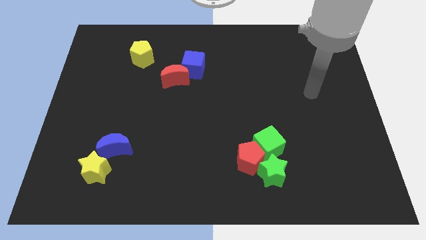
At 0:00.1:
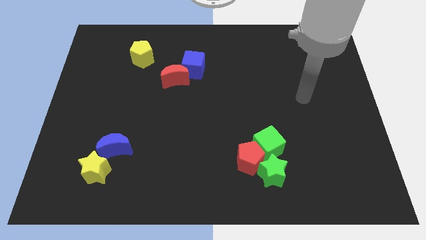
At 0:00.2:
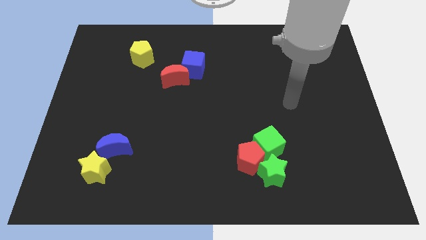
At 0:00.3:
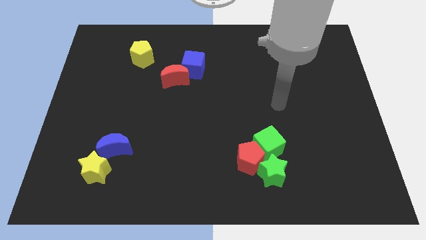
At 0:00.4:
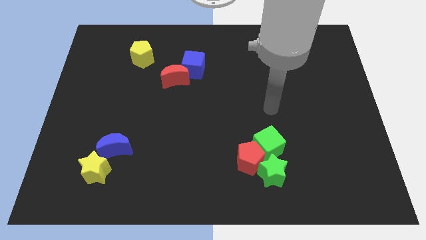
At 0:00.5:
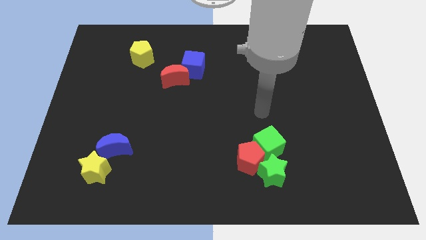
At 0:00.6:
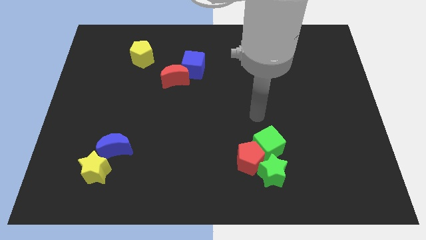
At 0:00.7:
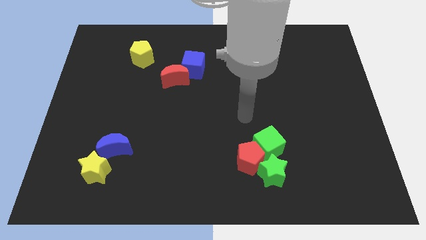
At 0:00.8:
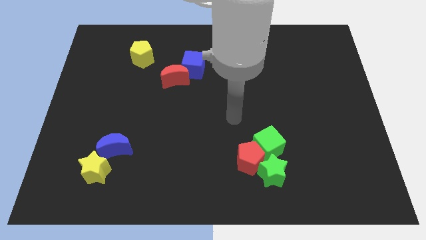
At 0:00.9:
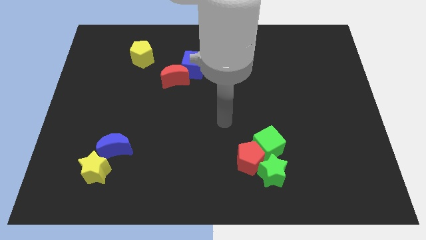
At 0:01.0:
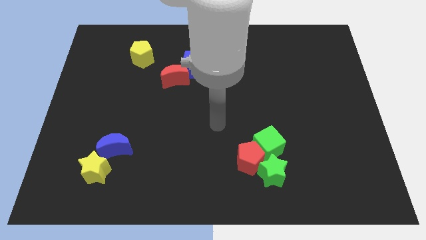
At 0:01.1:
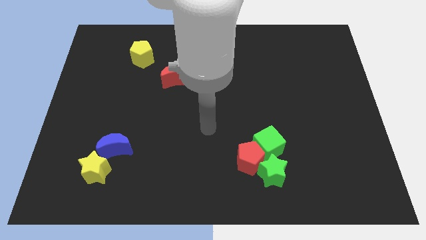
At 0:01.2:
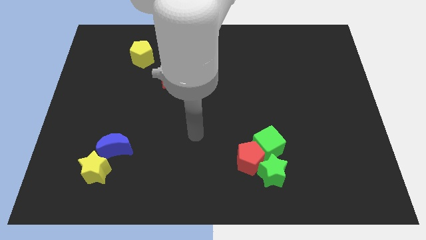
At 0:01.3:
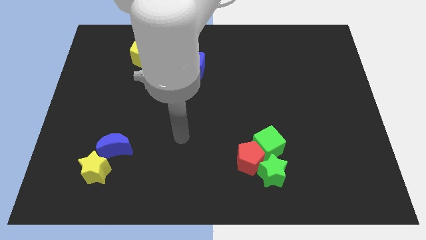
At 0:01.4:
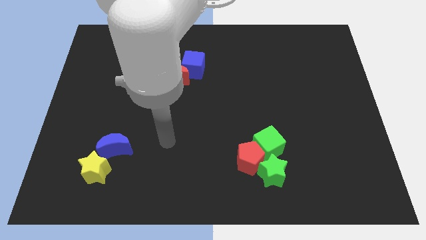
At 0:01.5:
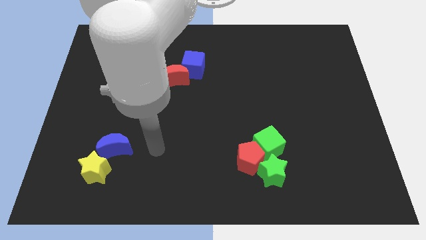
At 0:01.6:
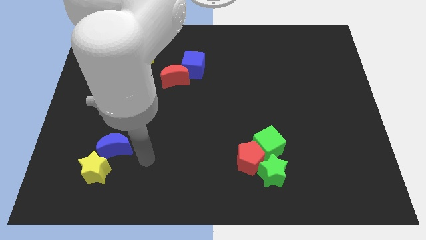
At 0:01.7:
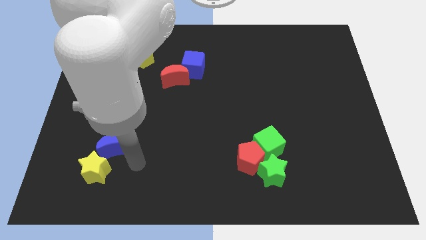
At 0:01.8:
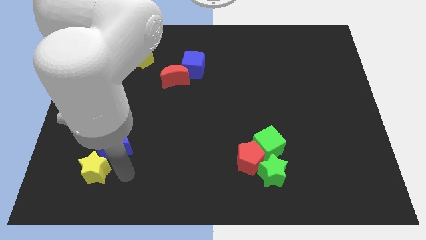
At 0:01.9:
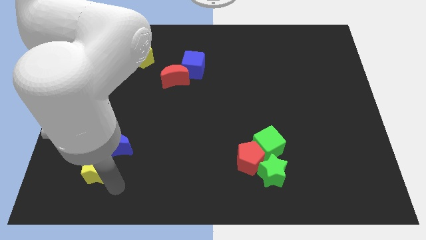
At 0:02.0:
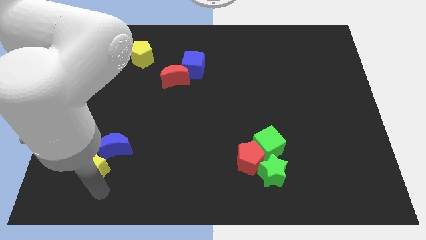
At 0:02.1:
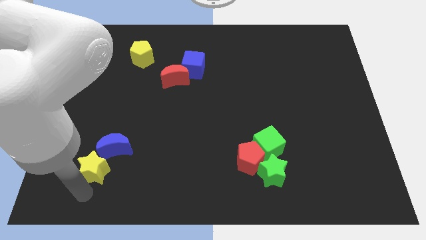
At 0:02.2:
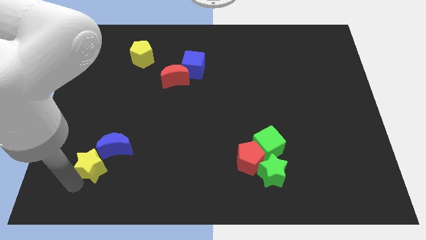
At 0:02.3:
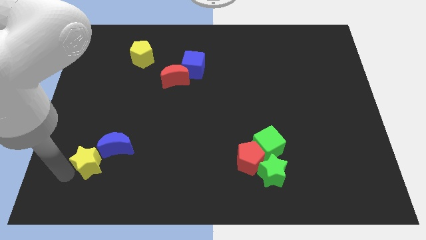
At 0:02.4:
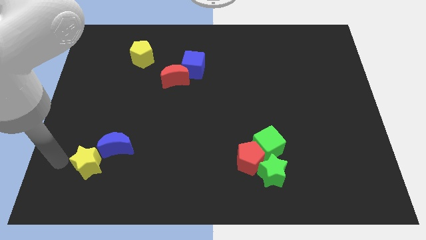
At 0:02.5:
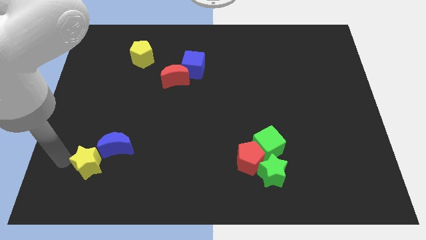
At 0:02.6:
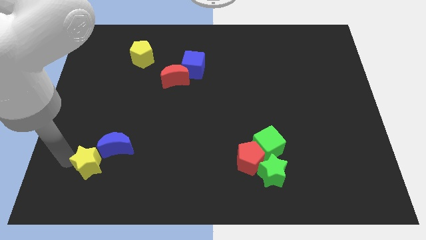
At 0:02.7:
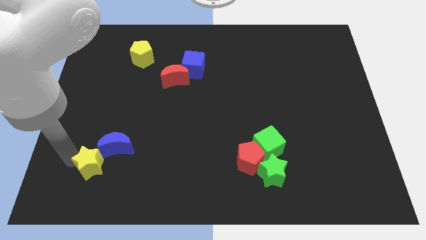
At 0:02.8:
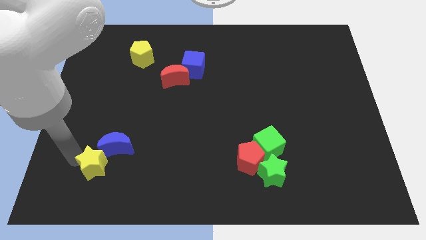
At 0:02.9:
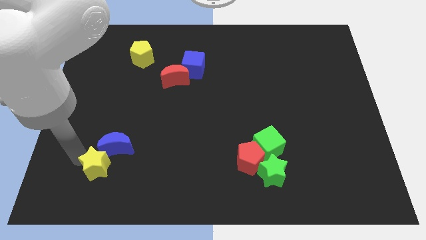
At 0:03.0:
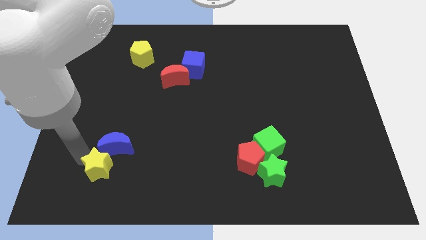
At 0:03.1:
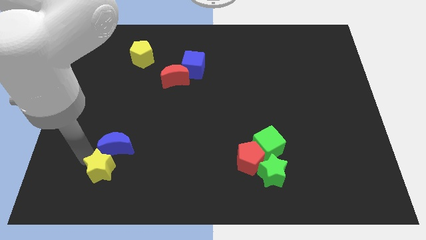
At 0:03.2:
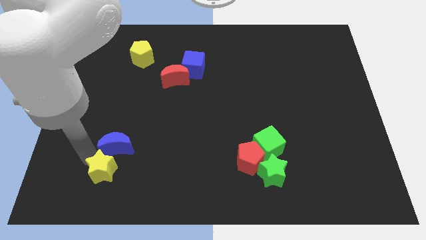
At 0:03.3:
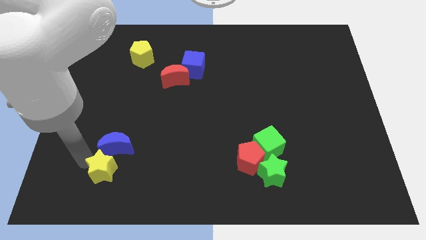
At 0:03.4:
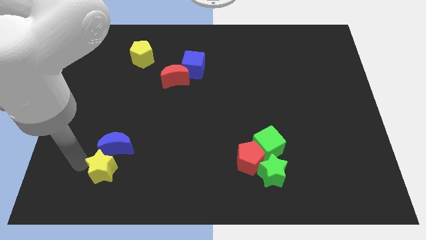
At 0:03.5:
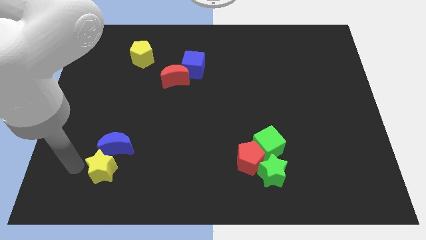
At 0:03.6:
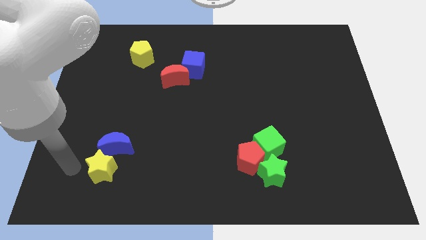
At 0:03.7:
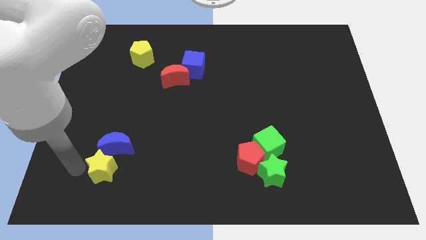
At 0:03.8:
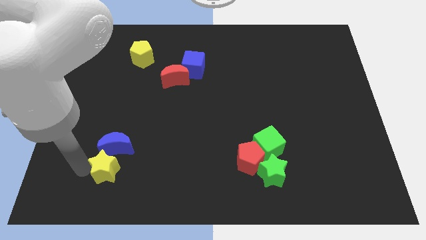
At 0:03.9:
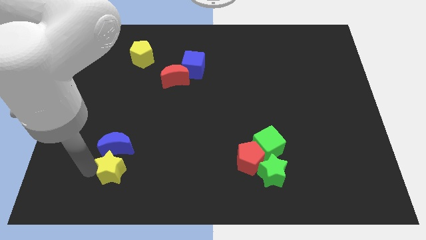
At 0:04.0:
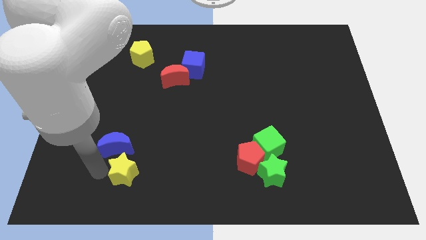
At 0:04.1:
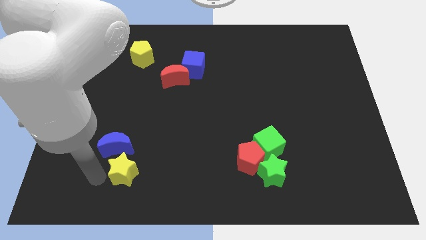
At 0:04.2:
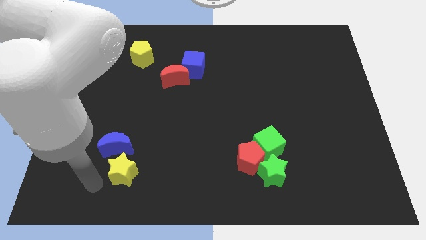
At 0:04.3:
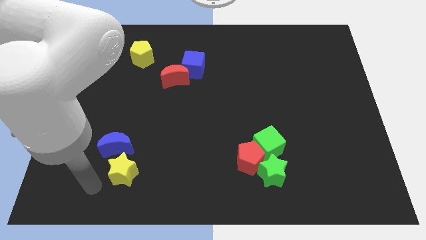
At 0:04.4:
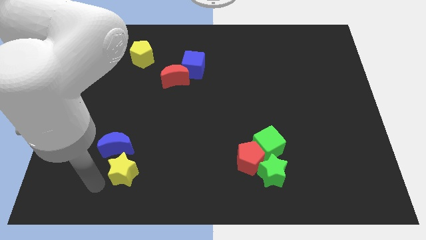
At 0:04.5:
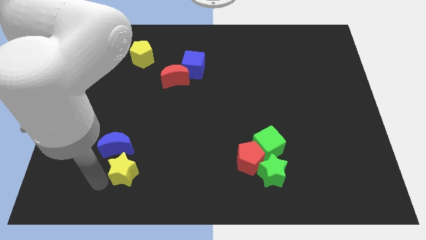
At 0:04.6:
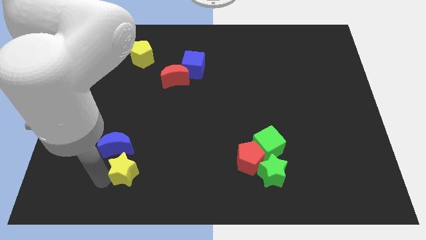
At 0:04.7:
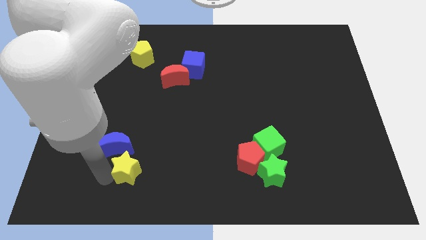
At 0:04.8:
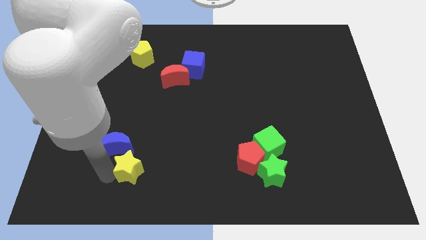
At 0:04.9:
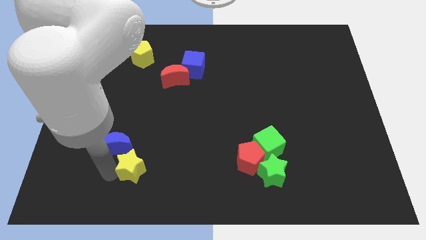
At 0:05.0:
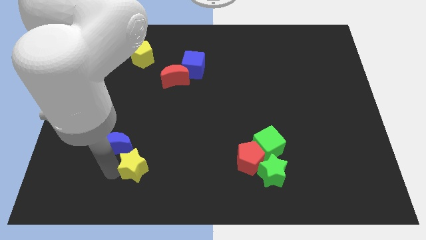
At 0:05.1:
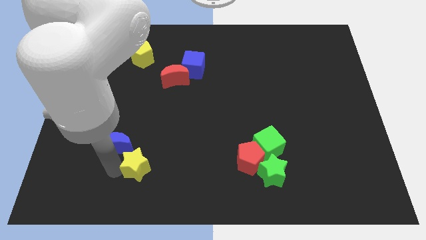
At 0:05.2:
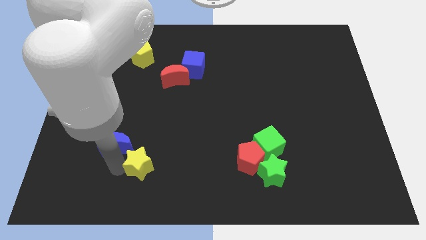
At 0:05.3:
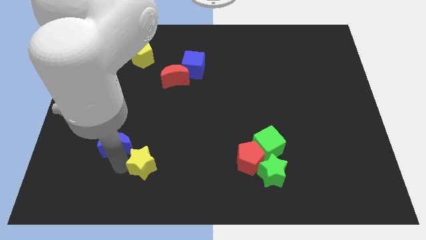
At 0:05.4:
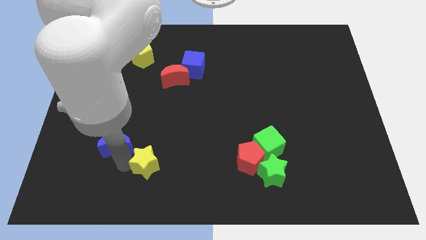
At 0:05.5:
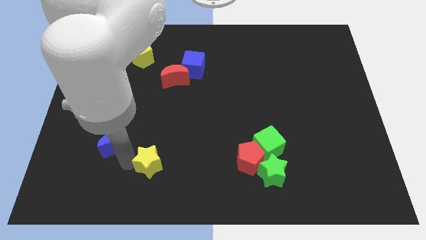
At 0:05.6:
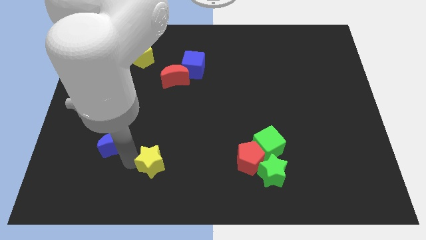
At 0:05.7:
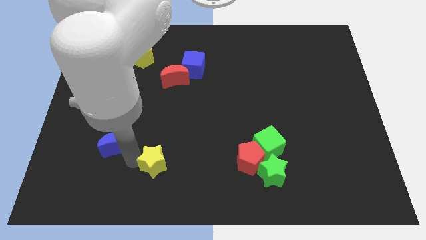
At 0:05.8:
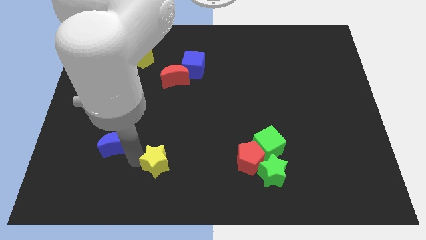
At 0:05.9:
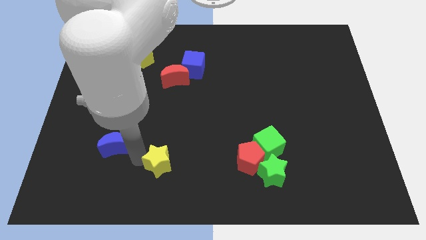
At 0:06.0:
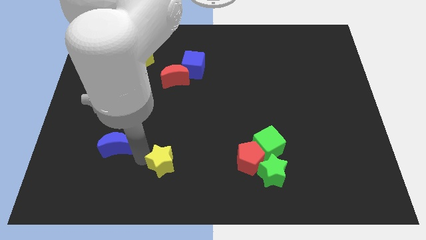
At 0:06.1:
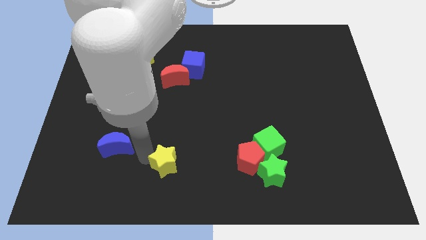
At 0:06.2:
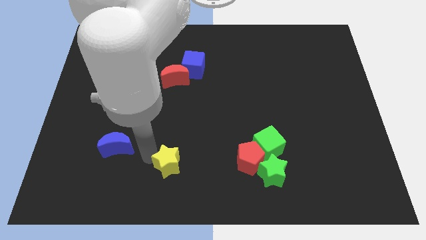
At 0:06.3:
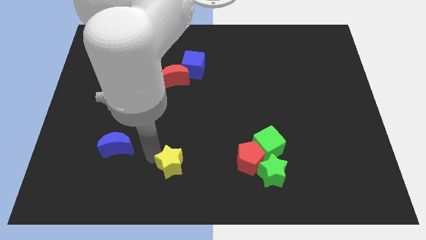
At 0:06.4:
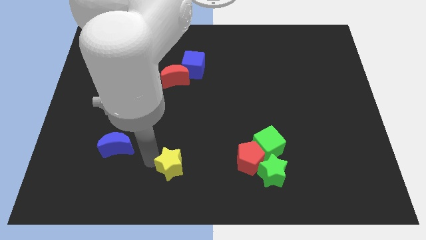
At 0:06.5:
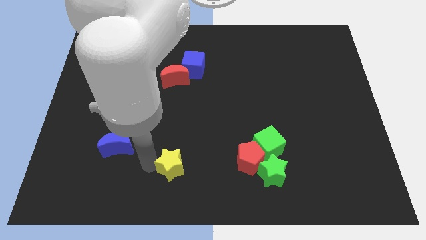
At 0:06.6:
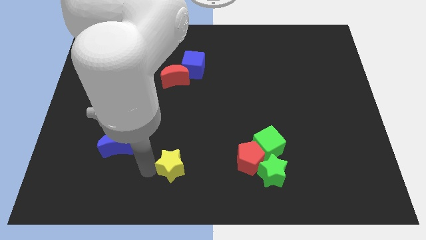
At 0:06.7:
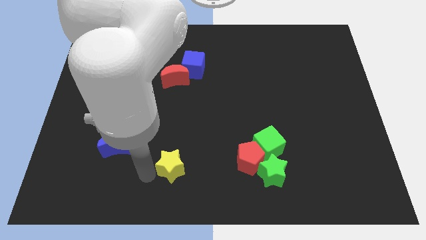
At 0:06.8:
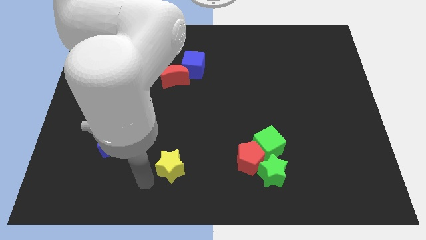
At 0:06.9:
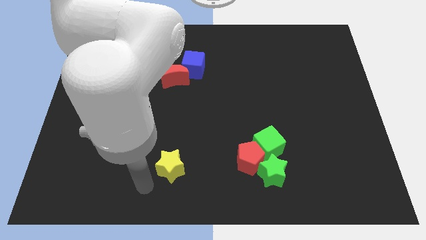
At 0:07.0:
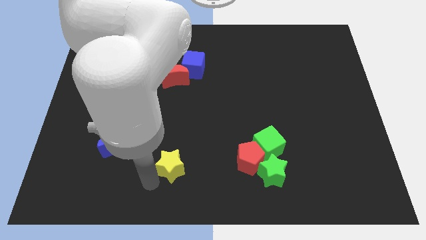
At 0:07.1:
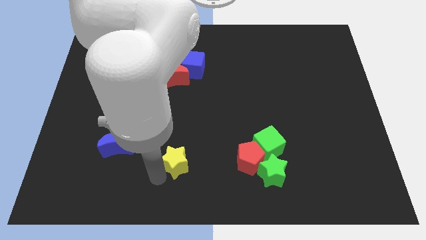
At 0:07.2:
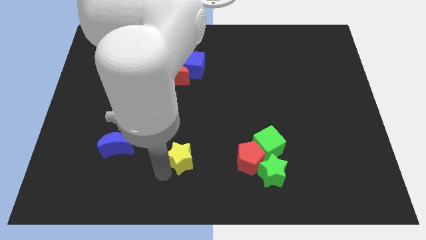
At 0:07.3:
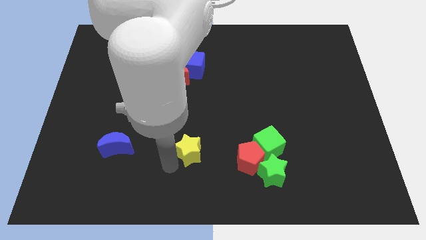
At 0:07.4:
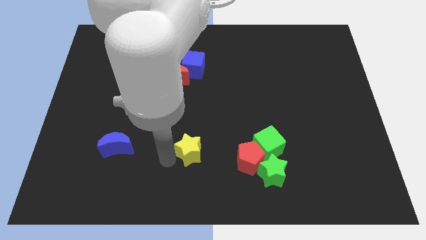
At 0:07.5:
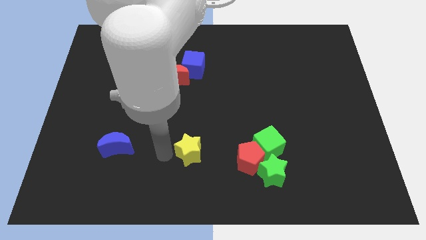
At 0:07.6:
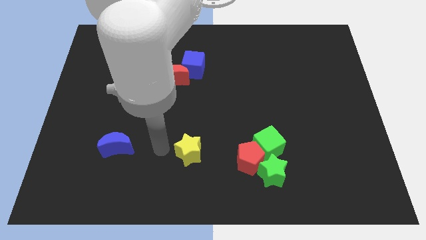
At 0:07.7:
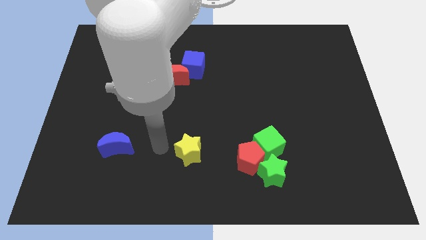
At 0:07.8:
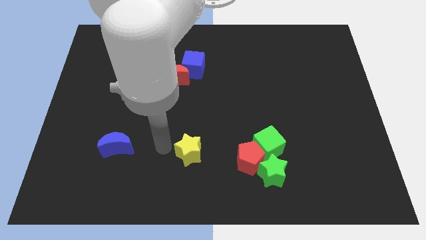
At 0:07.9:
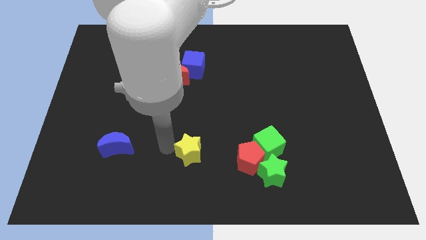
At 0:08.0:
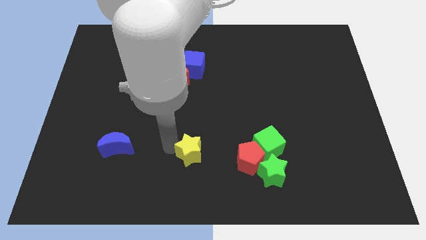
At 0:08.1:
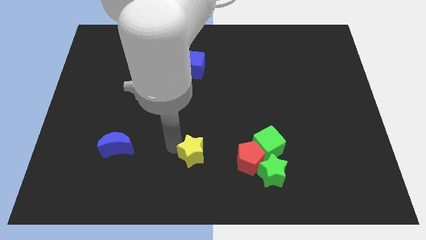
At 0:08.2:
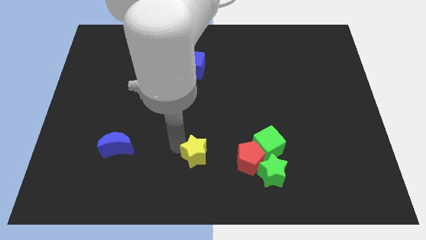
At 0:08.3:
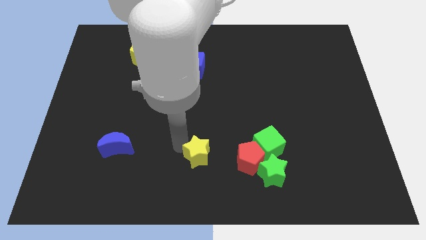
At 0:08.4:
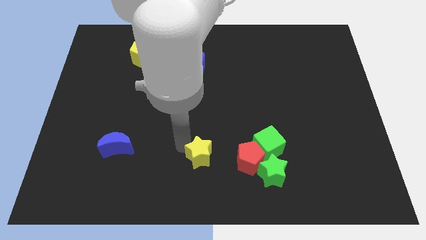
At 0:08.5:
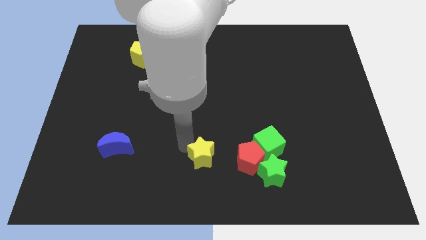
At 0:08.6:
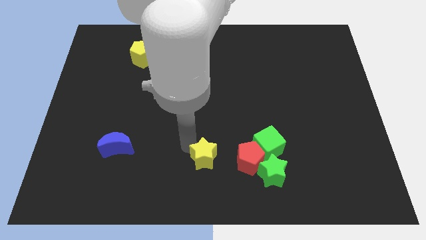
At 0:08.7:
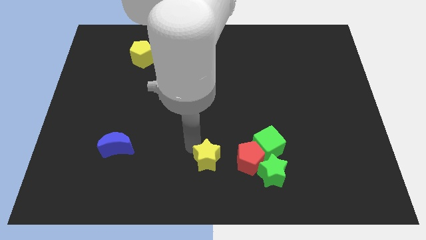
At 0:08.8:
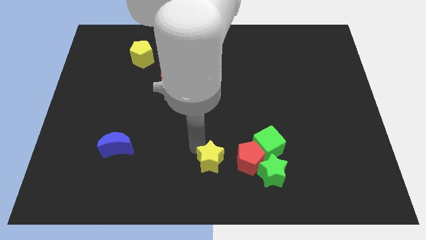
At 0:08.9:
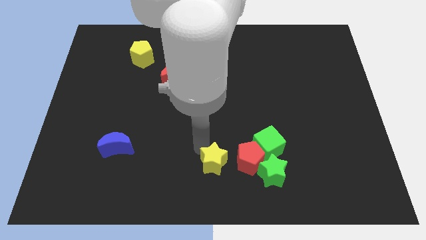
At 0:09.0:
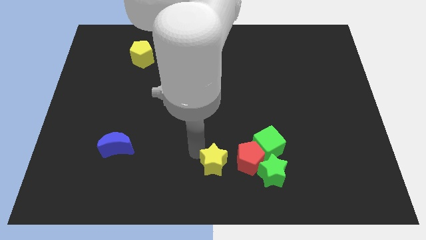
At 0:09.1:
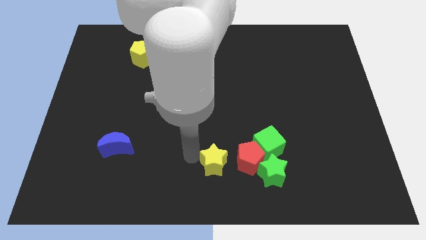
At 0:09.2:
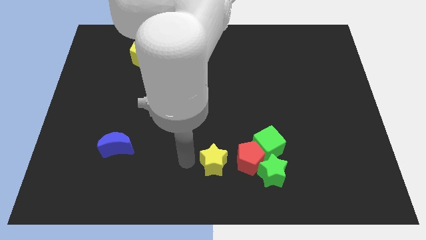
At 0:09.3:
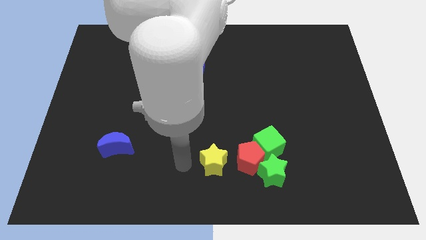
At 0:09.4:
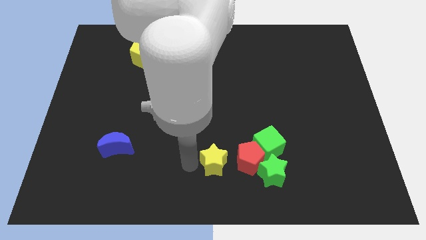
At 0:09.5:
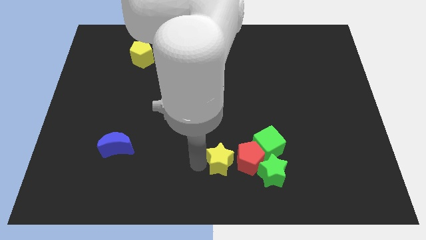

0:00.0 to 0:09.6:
slide the yellow star next to the red pentagon
